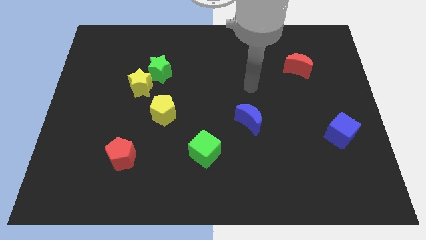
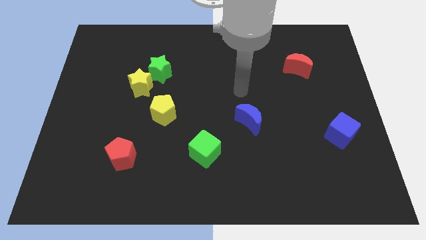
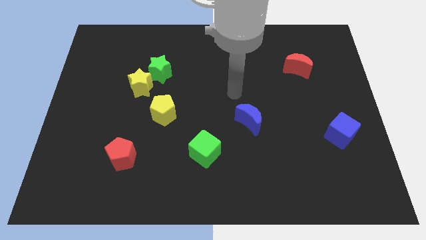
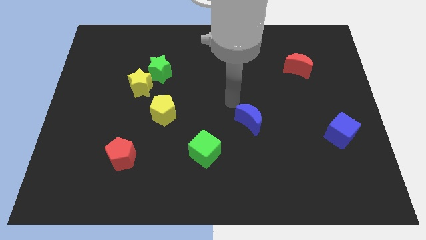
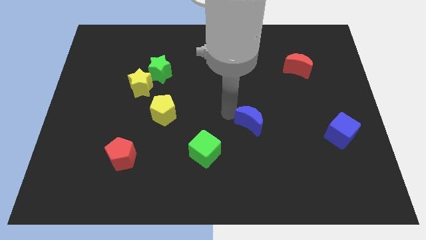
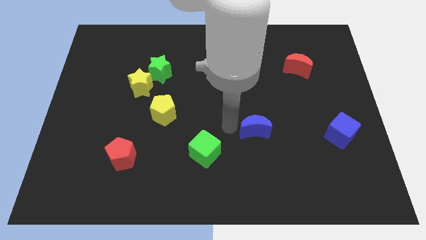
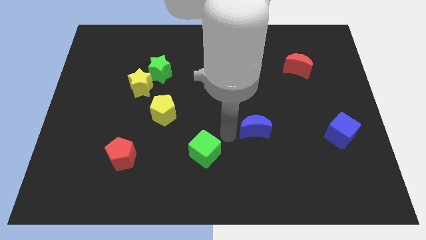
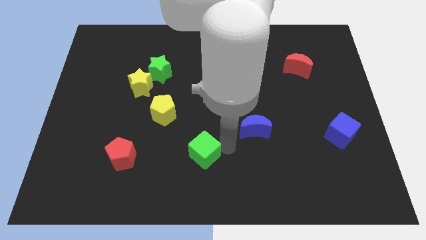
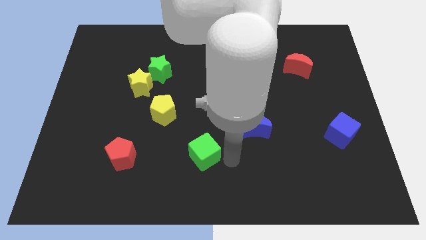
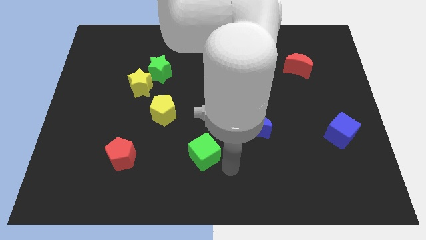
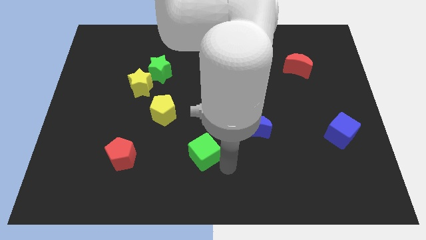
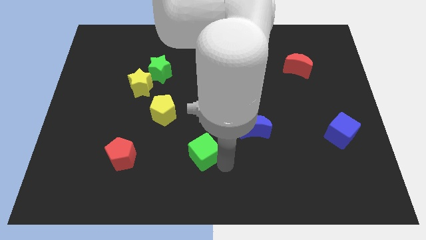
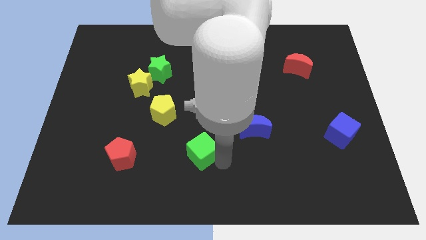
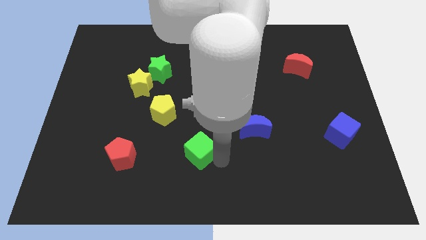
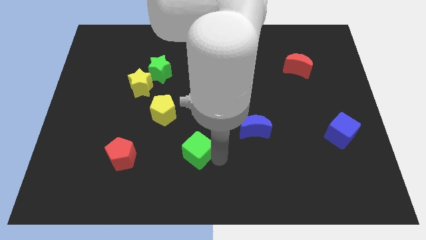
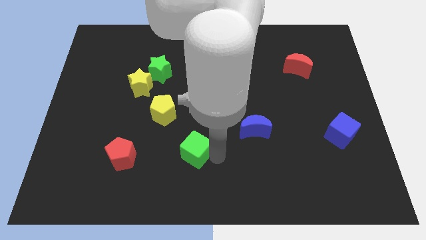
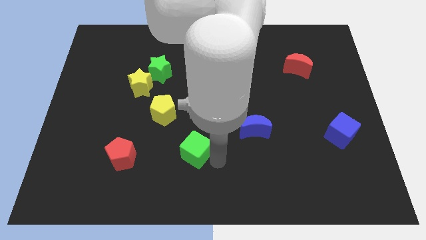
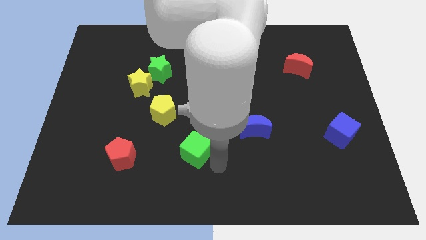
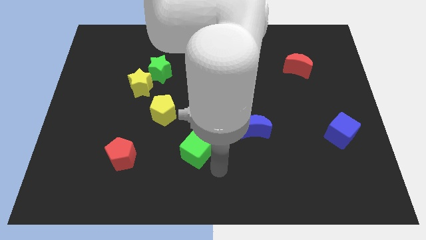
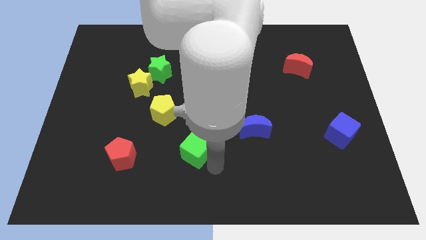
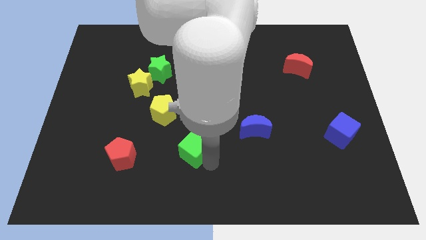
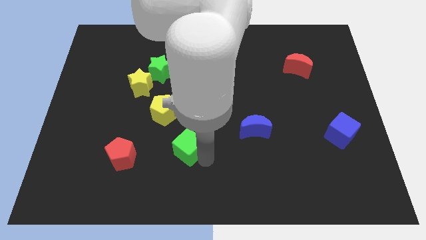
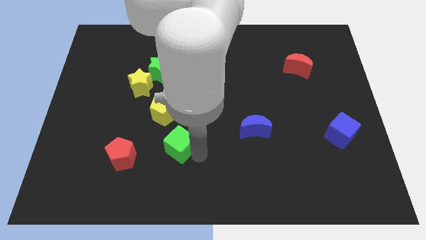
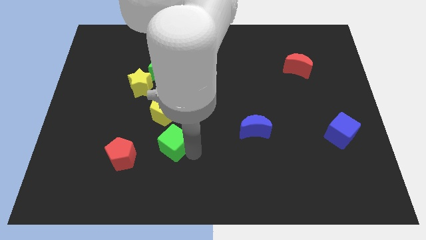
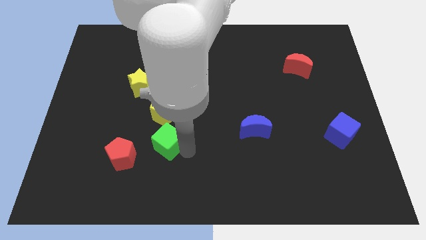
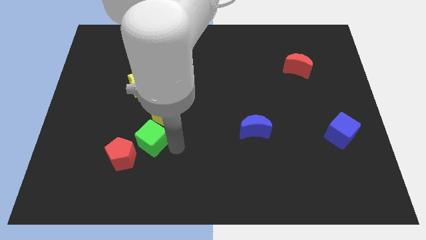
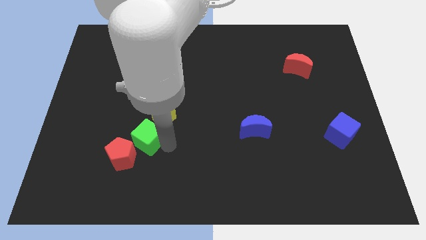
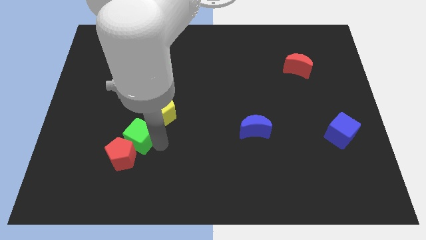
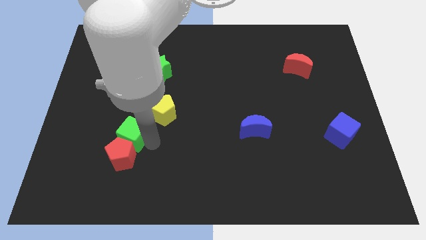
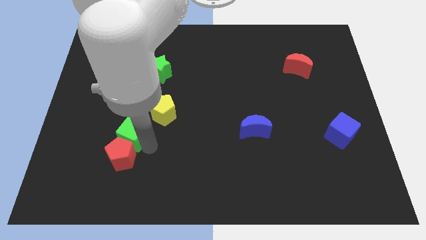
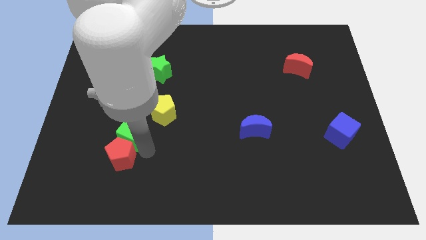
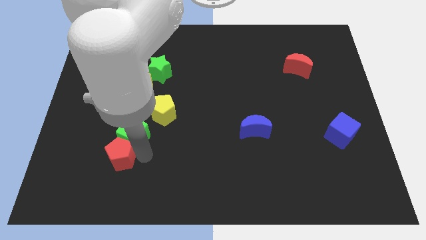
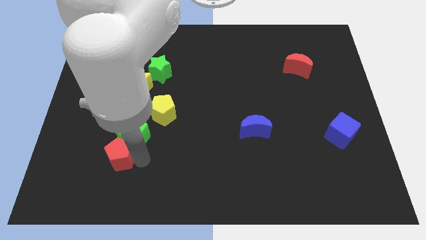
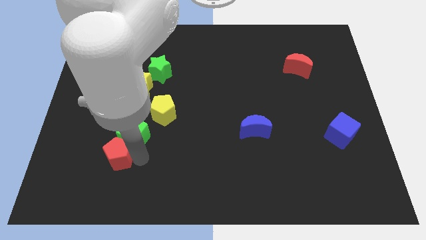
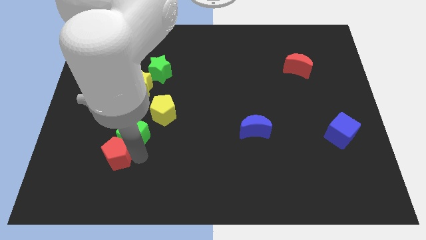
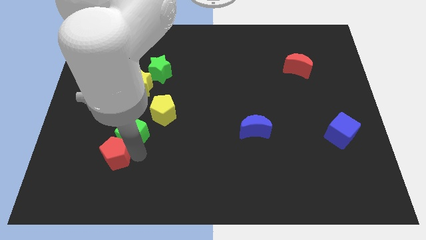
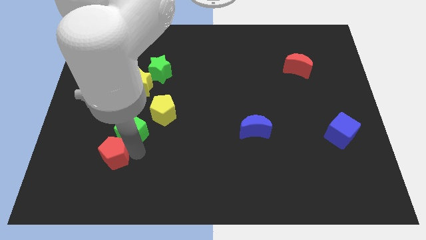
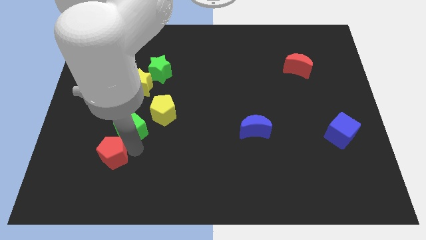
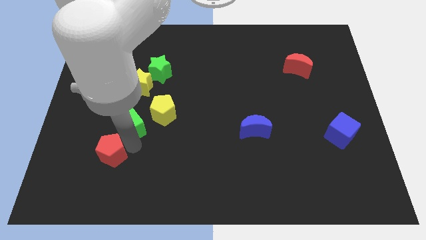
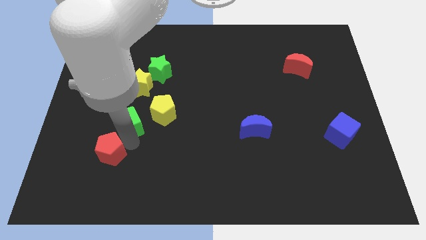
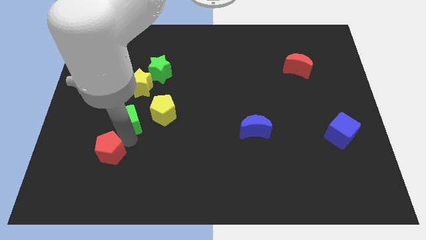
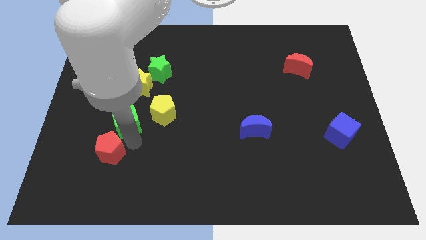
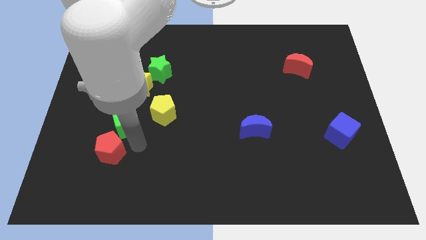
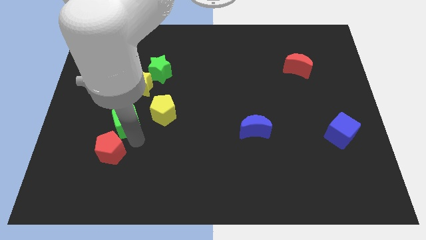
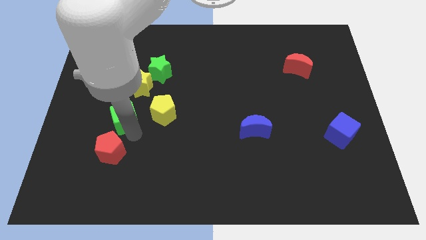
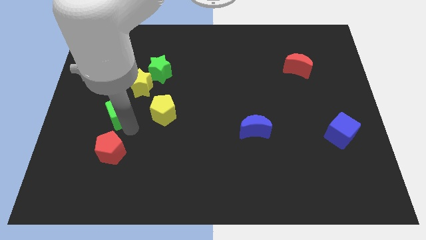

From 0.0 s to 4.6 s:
push the green cube to the bottom left side of the yellow star

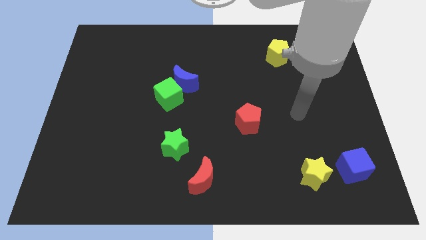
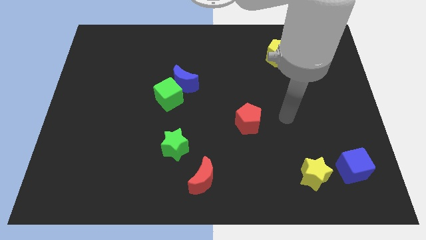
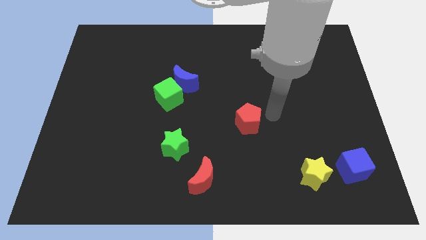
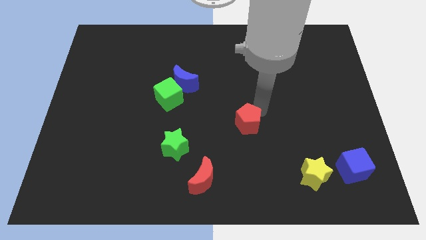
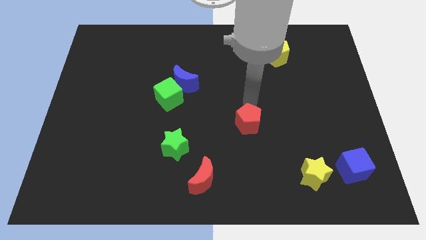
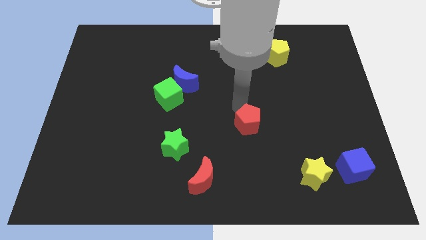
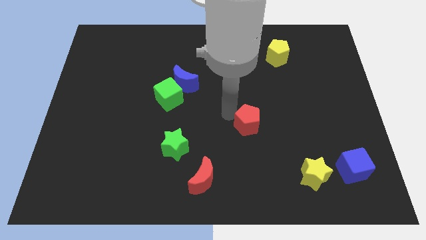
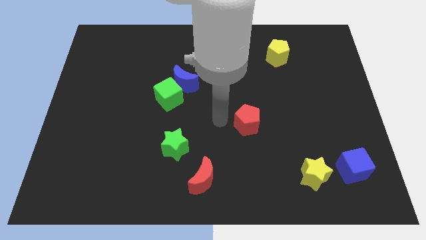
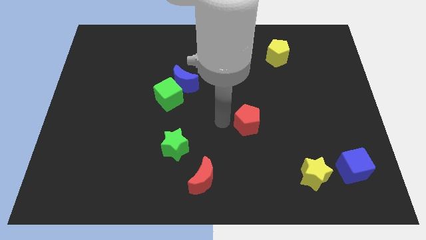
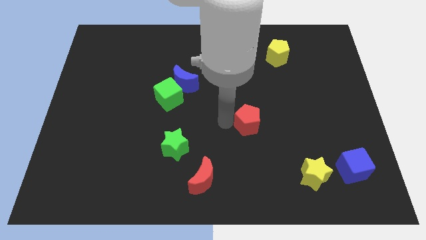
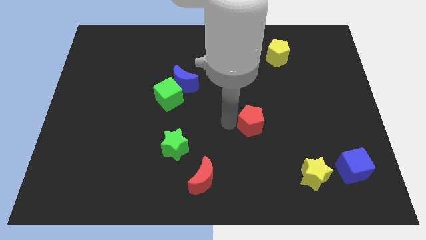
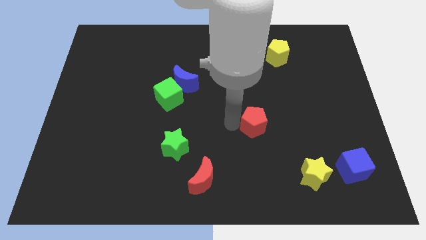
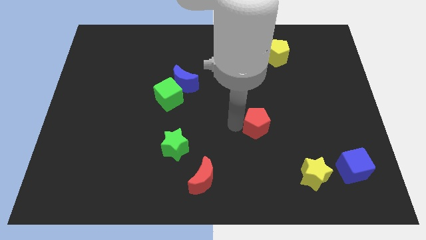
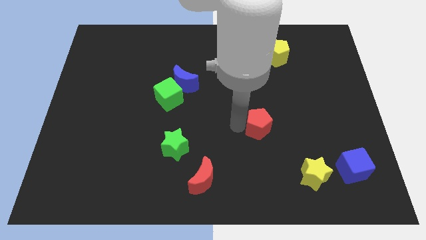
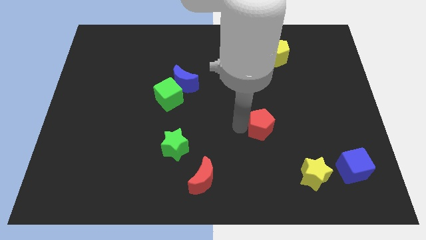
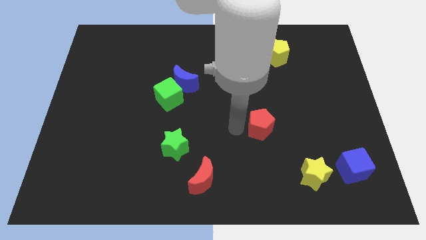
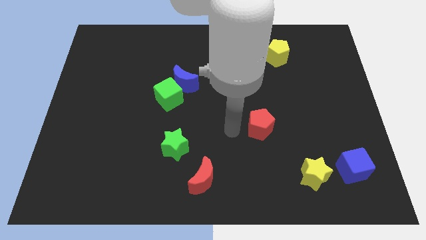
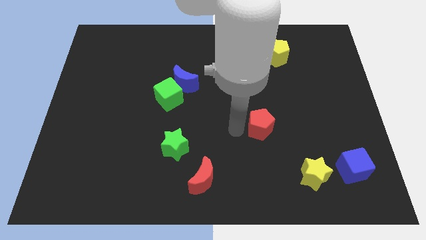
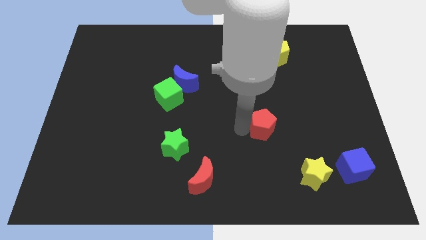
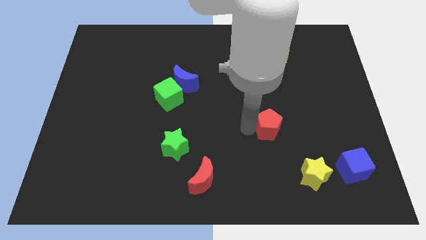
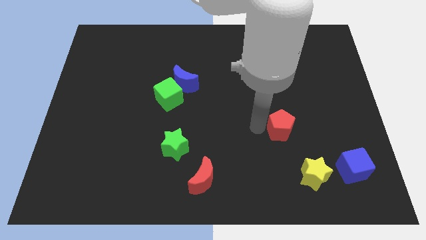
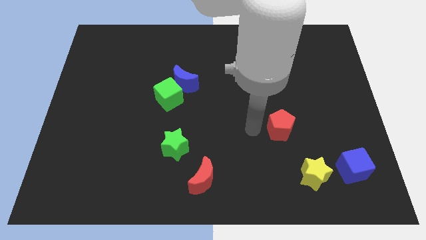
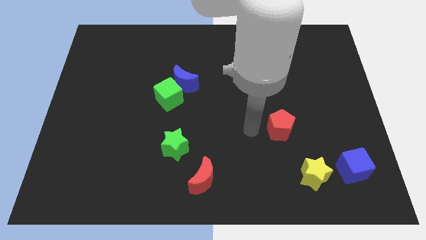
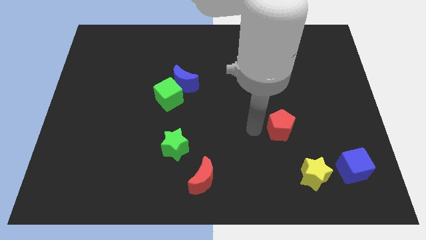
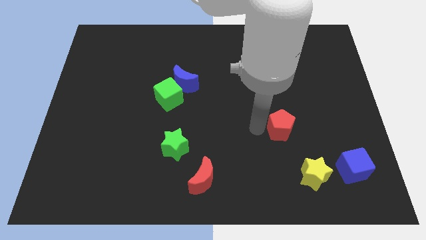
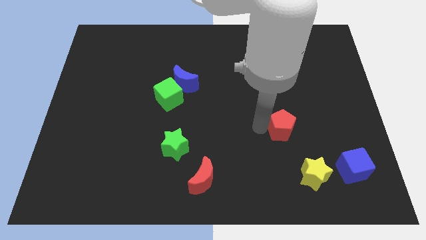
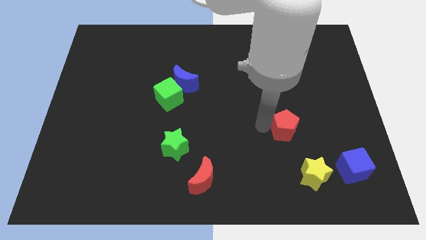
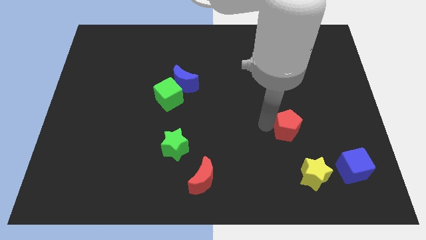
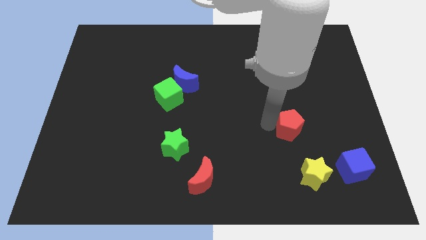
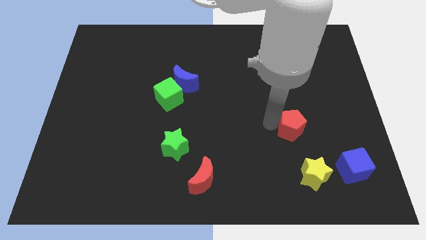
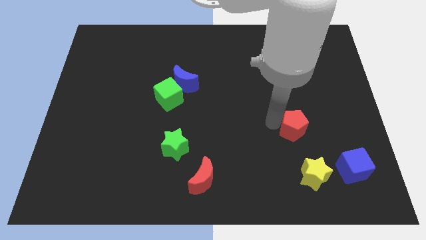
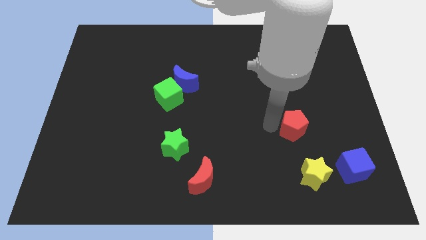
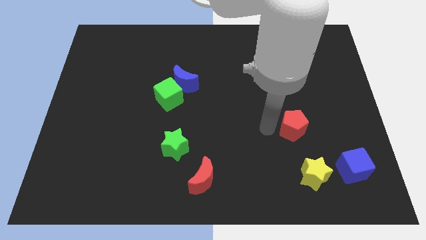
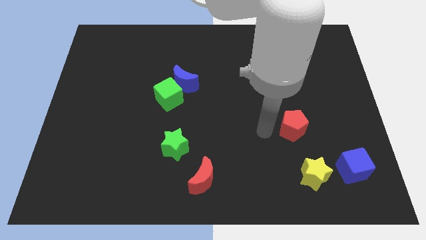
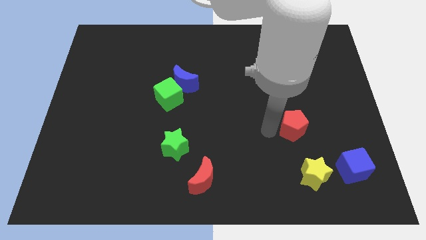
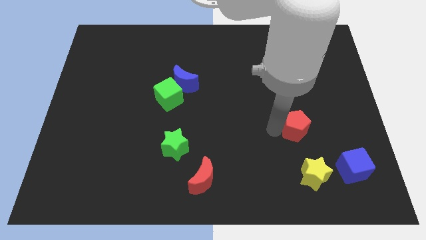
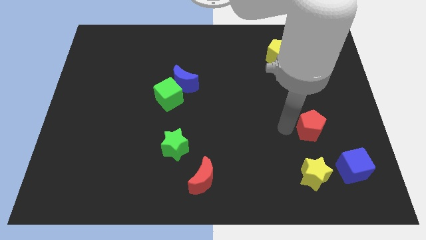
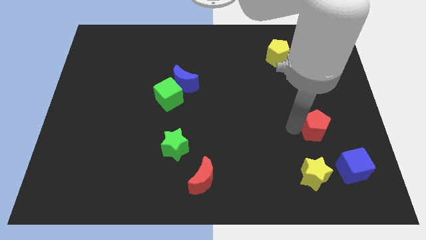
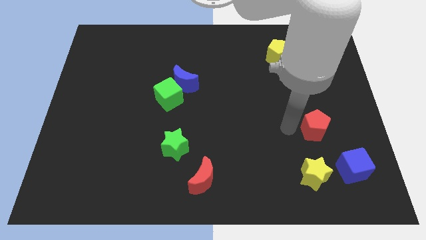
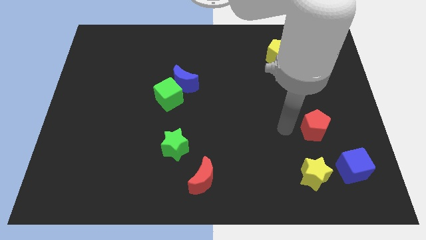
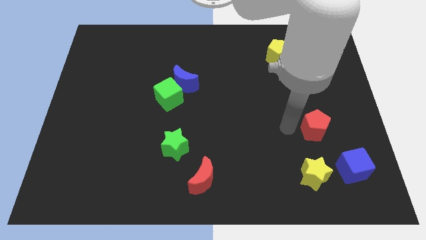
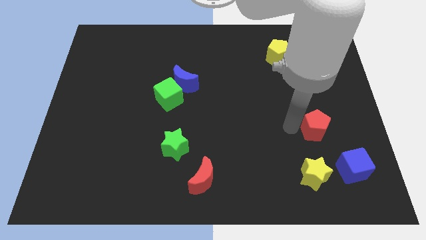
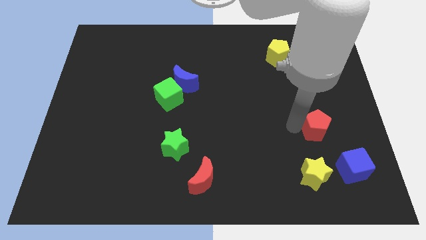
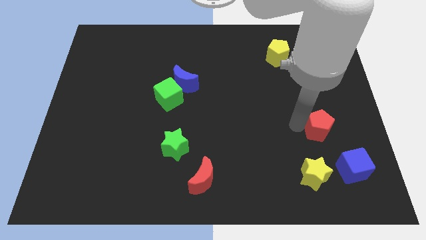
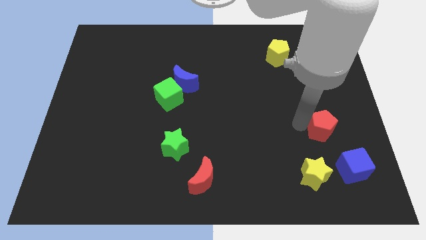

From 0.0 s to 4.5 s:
push the red pentagon above the blue cube
